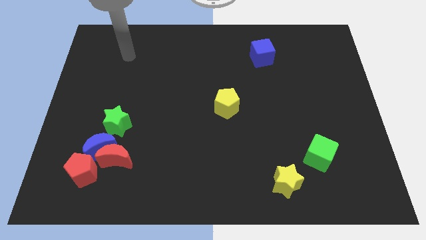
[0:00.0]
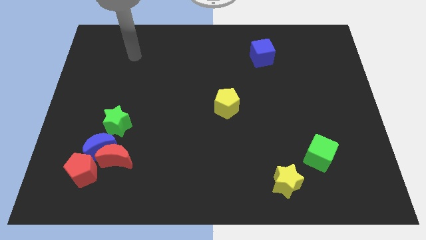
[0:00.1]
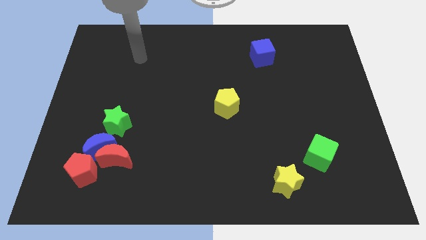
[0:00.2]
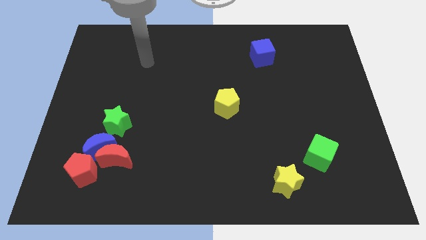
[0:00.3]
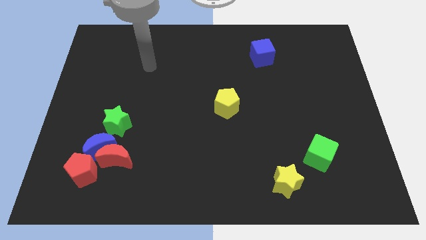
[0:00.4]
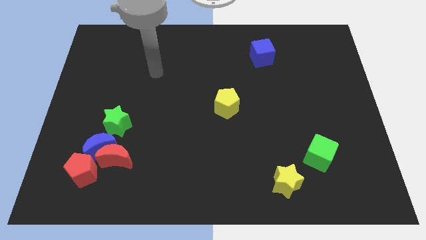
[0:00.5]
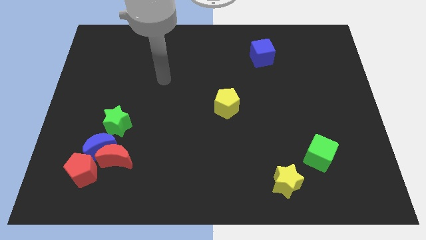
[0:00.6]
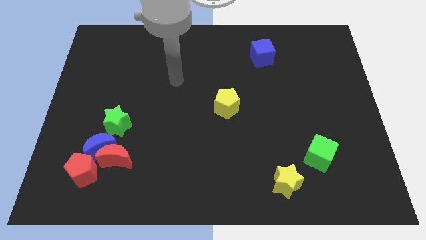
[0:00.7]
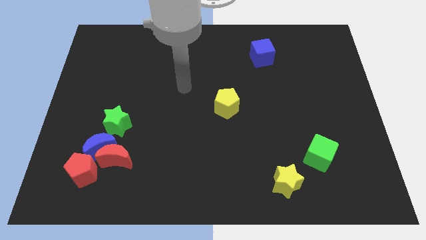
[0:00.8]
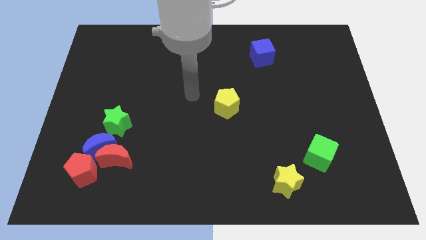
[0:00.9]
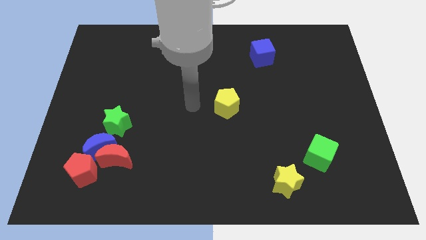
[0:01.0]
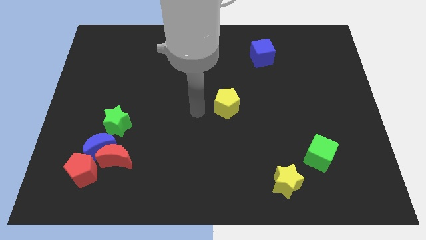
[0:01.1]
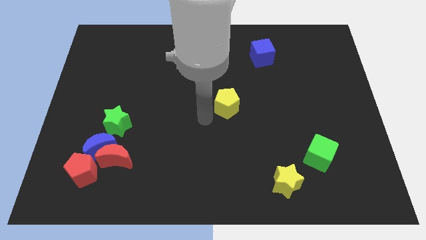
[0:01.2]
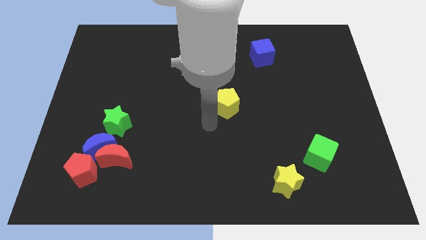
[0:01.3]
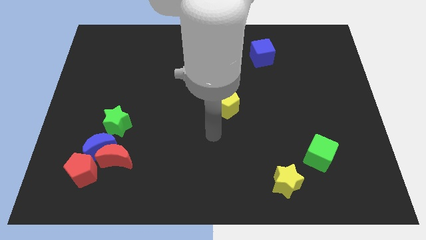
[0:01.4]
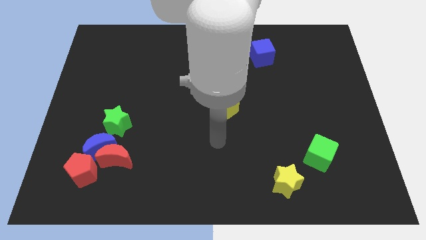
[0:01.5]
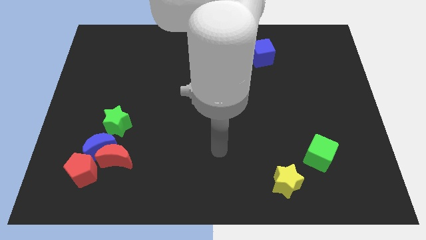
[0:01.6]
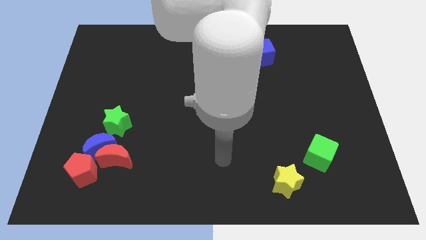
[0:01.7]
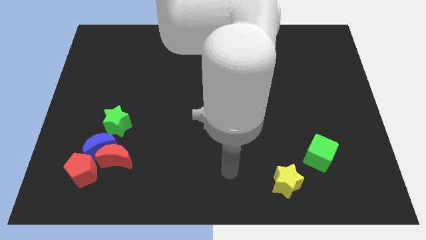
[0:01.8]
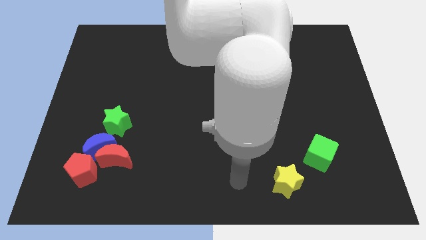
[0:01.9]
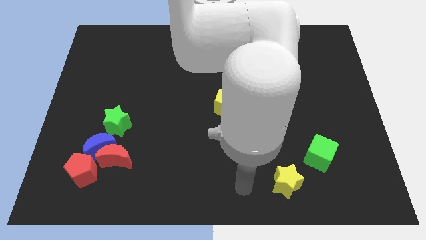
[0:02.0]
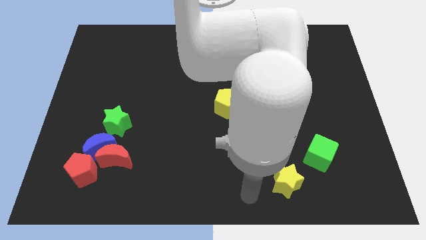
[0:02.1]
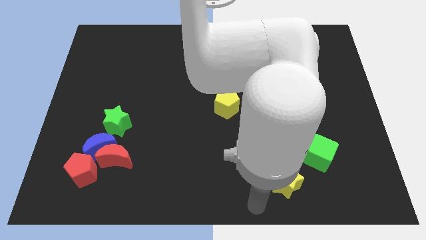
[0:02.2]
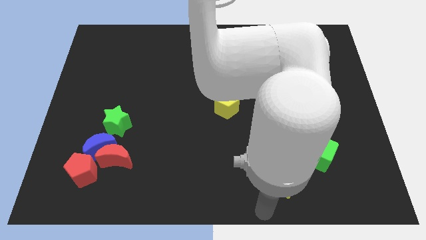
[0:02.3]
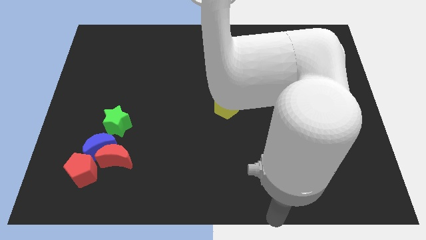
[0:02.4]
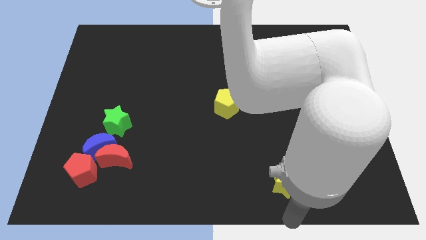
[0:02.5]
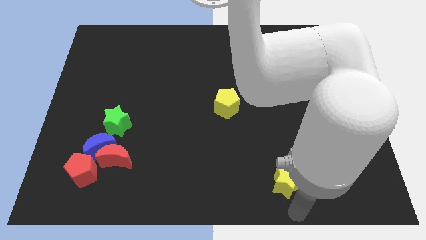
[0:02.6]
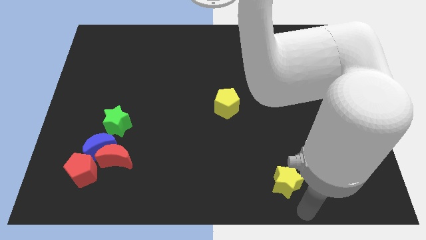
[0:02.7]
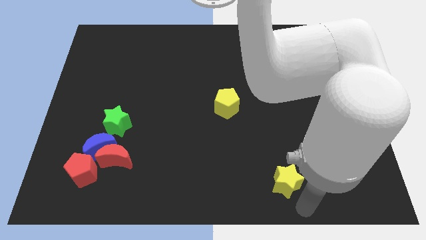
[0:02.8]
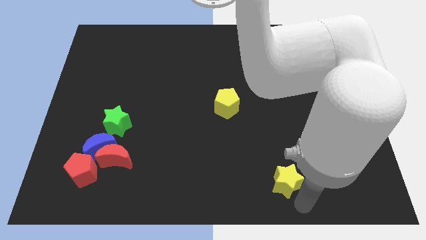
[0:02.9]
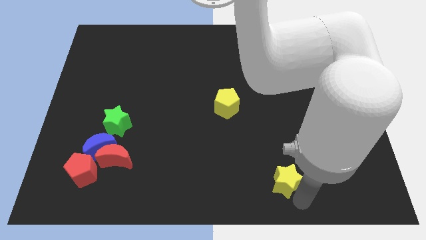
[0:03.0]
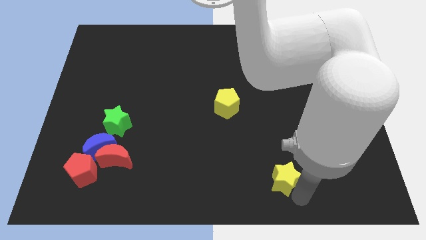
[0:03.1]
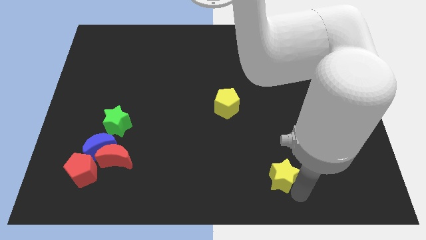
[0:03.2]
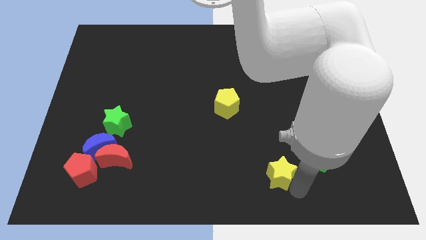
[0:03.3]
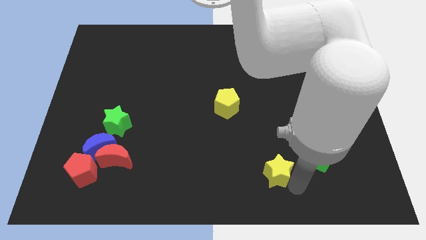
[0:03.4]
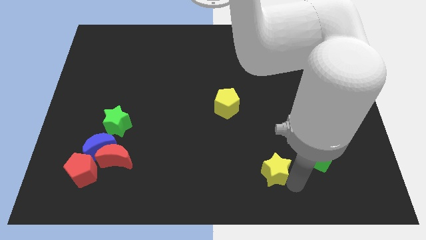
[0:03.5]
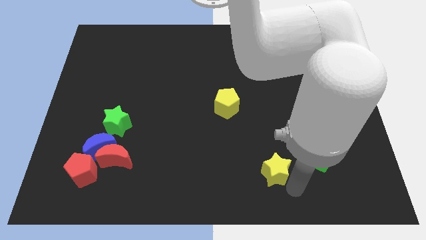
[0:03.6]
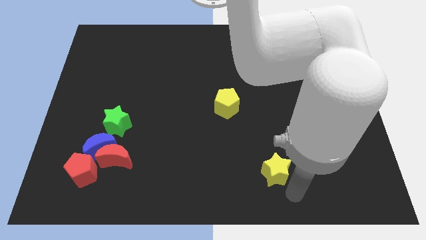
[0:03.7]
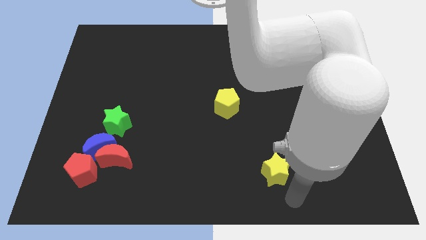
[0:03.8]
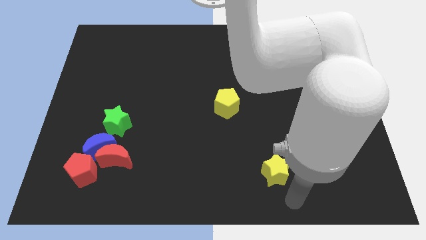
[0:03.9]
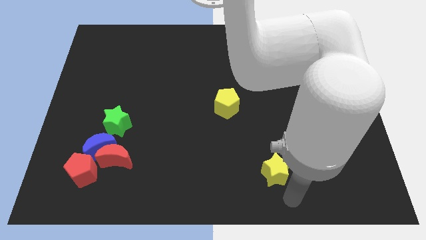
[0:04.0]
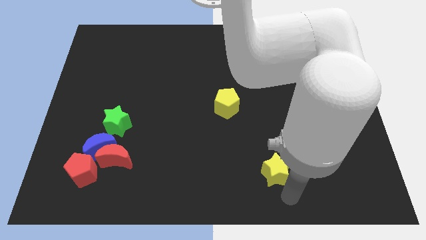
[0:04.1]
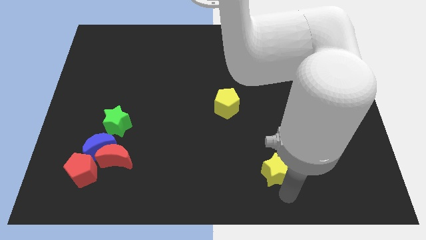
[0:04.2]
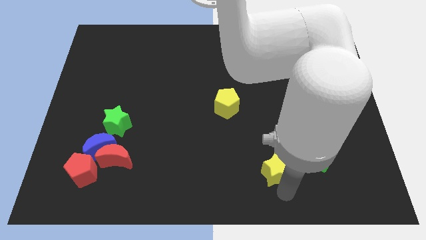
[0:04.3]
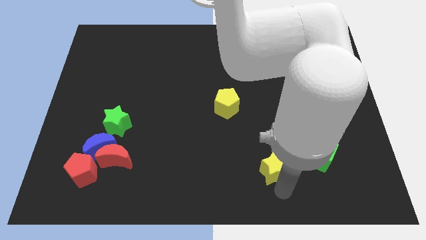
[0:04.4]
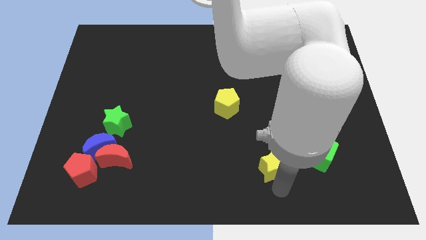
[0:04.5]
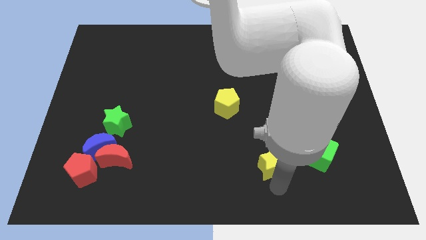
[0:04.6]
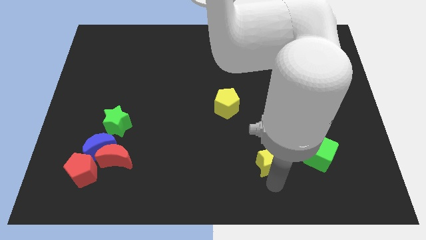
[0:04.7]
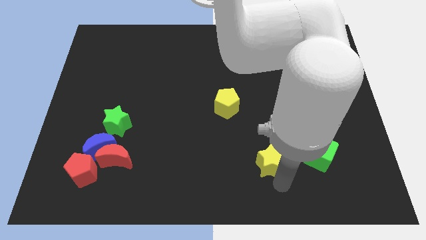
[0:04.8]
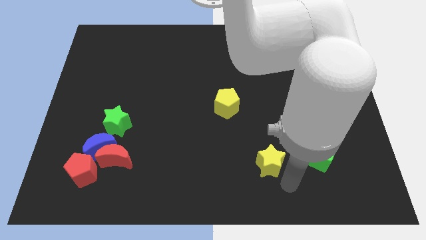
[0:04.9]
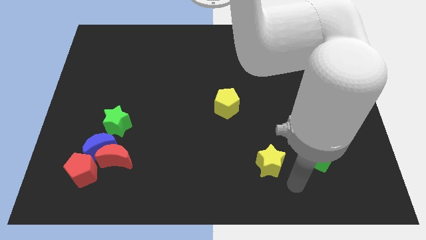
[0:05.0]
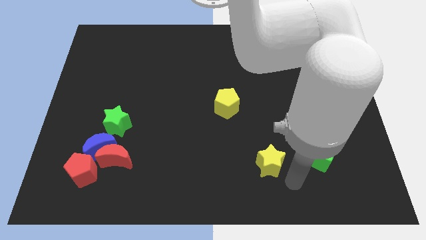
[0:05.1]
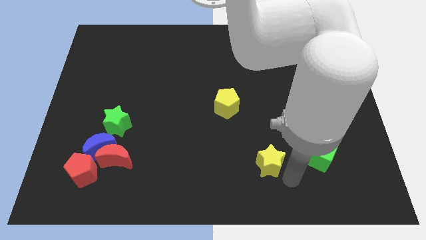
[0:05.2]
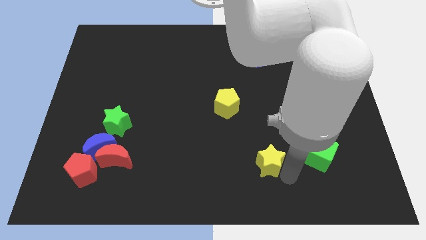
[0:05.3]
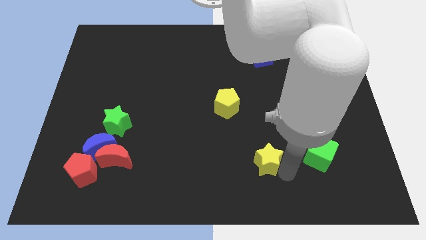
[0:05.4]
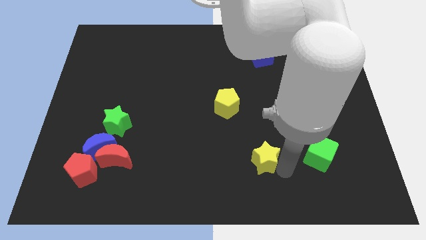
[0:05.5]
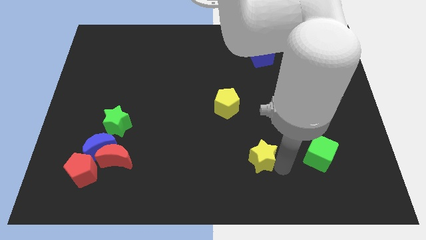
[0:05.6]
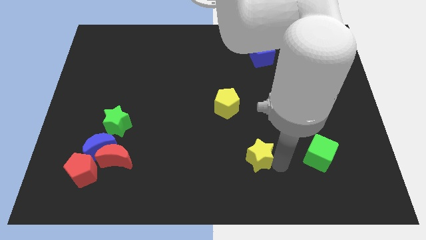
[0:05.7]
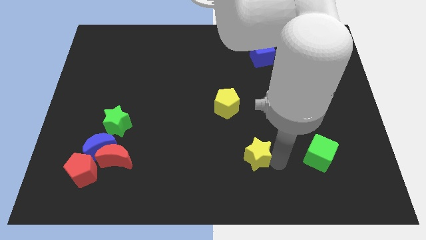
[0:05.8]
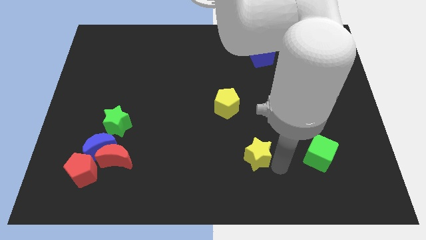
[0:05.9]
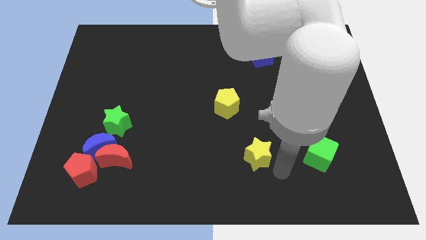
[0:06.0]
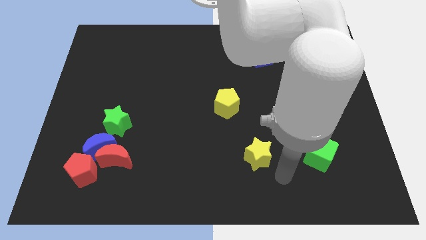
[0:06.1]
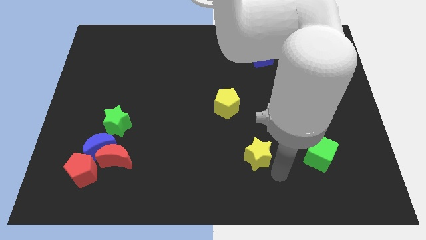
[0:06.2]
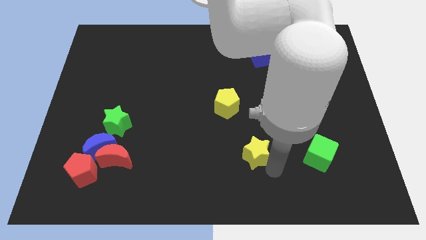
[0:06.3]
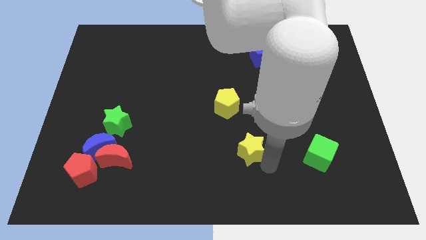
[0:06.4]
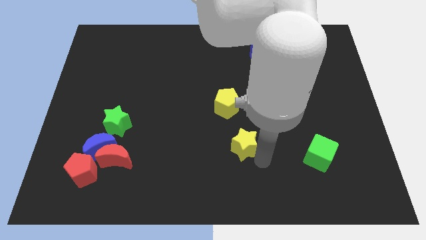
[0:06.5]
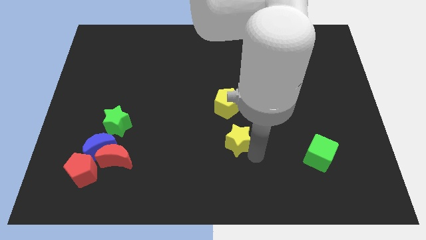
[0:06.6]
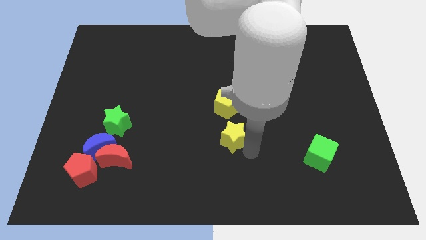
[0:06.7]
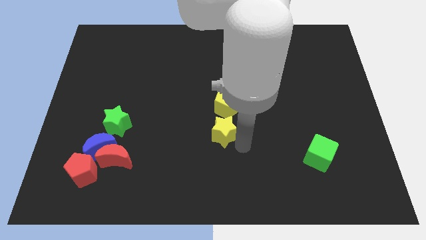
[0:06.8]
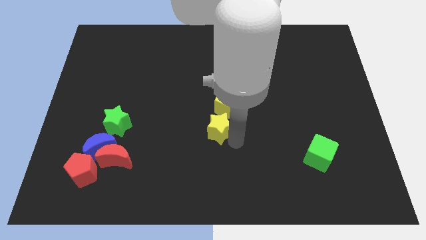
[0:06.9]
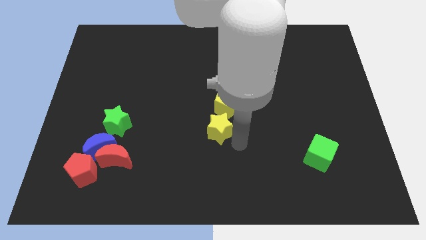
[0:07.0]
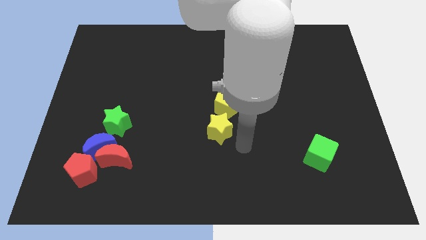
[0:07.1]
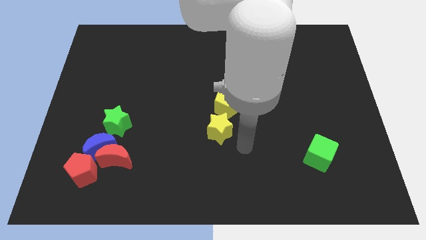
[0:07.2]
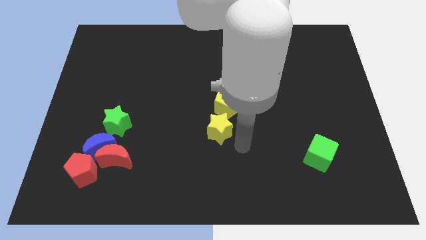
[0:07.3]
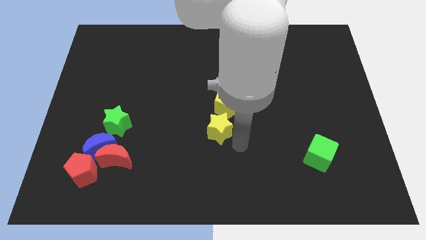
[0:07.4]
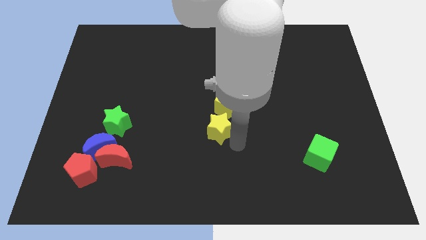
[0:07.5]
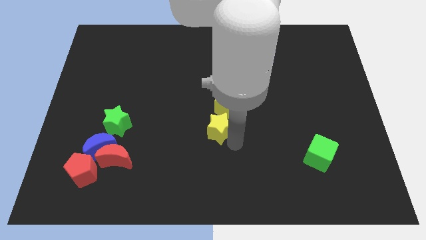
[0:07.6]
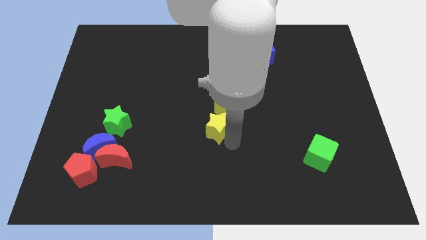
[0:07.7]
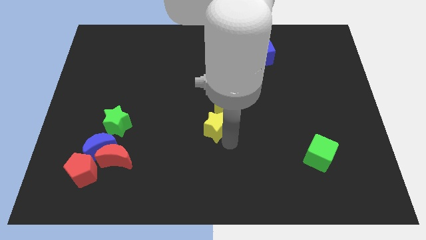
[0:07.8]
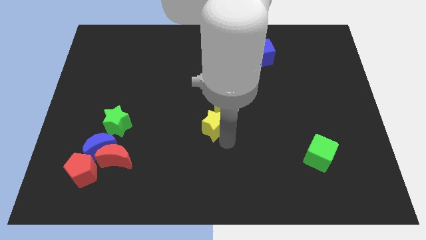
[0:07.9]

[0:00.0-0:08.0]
move the yellow star upwards and left diagonally

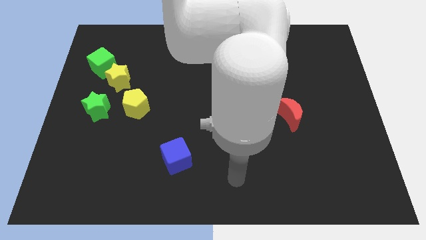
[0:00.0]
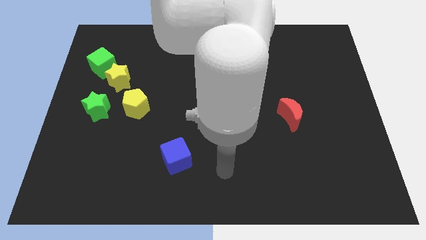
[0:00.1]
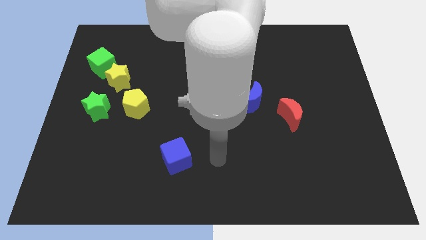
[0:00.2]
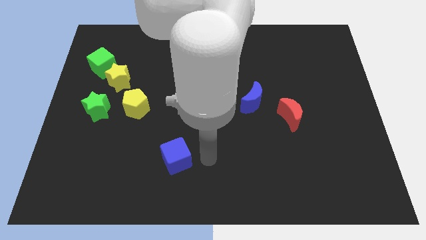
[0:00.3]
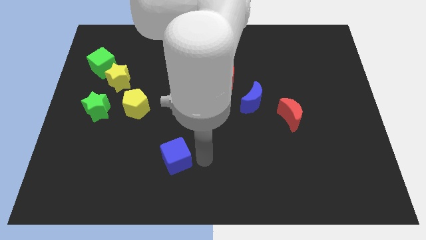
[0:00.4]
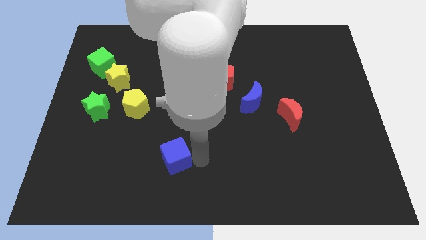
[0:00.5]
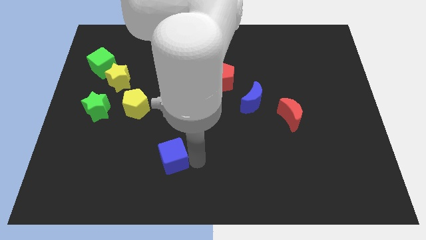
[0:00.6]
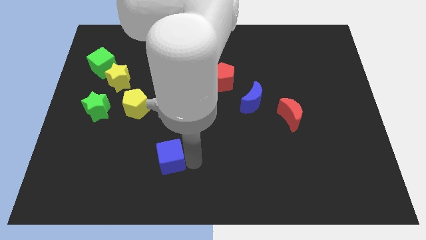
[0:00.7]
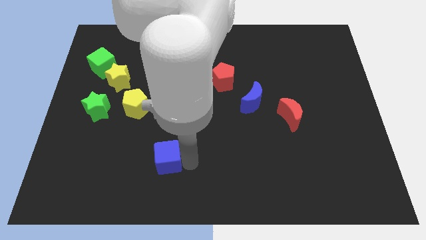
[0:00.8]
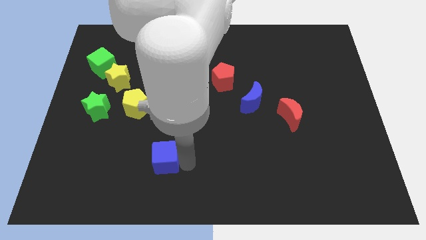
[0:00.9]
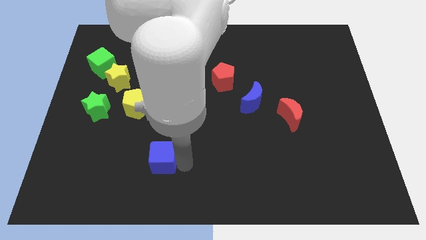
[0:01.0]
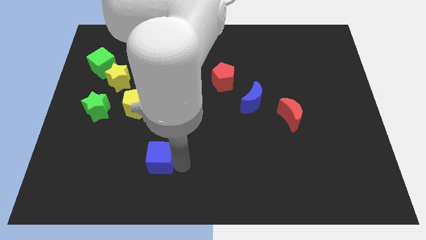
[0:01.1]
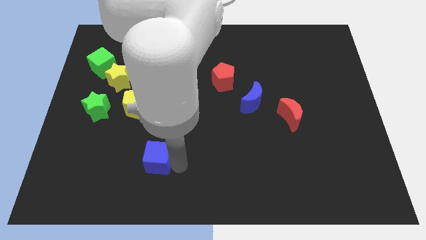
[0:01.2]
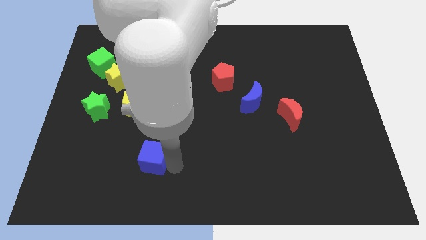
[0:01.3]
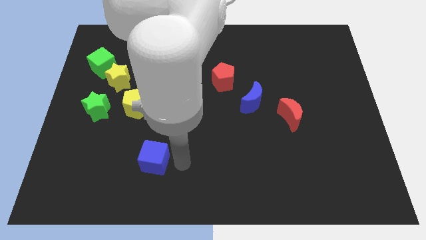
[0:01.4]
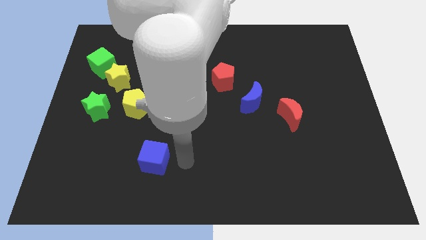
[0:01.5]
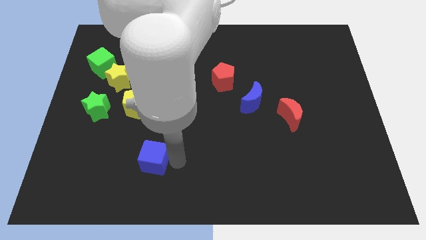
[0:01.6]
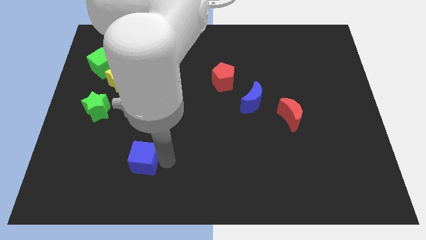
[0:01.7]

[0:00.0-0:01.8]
push the blue cube a little left
